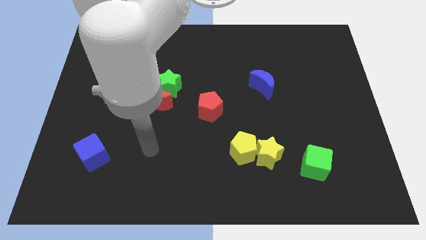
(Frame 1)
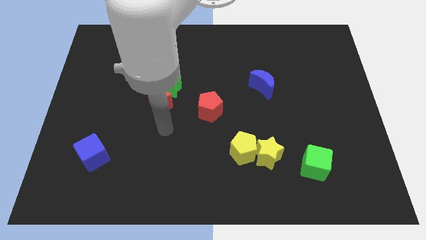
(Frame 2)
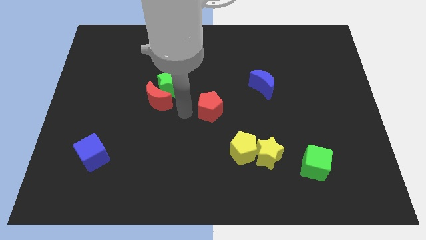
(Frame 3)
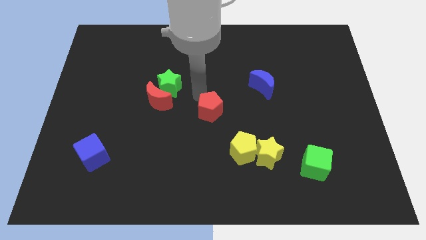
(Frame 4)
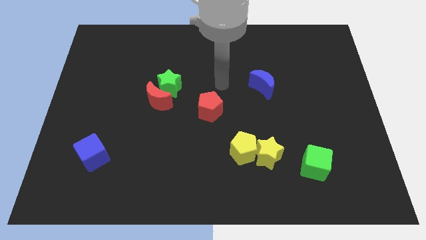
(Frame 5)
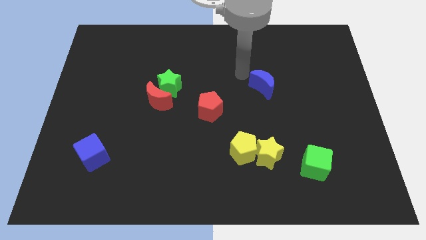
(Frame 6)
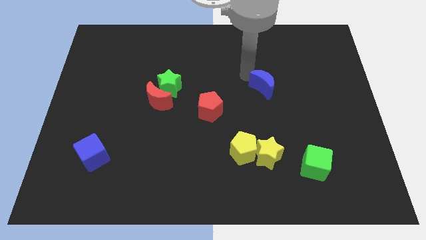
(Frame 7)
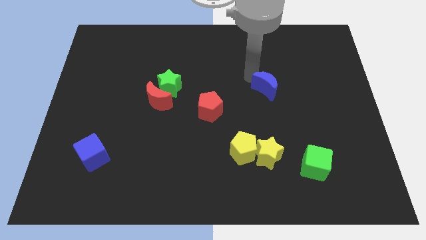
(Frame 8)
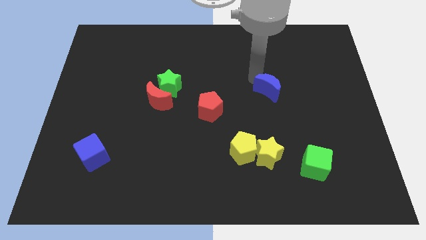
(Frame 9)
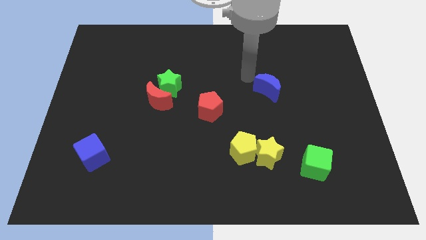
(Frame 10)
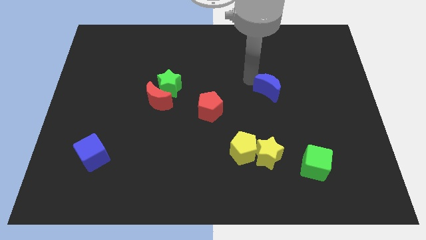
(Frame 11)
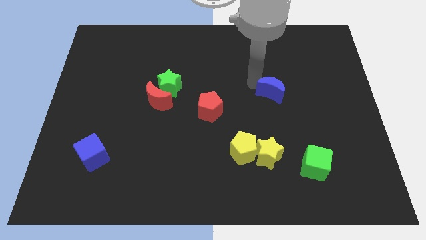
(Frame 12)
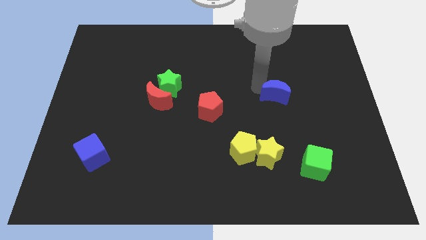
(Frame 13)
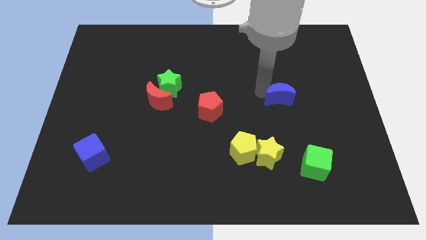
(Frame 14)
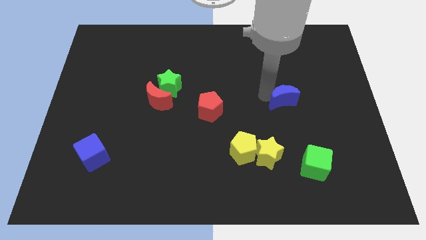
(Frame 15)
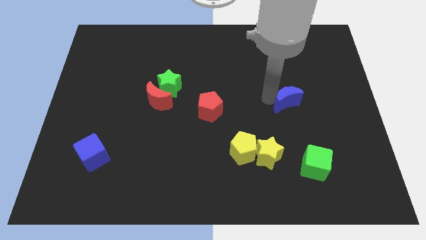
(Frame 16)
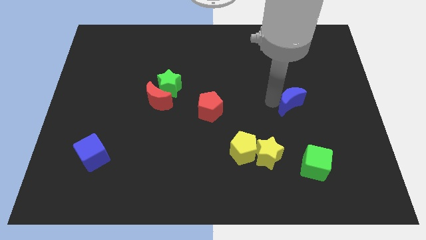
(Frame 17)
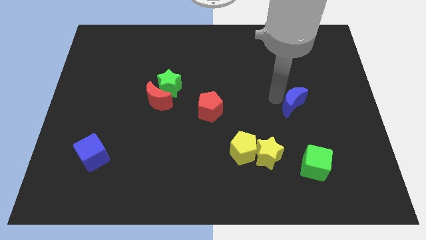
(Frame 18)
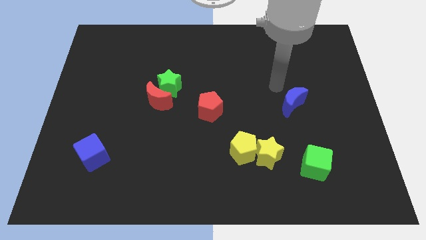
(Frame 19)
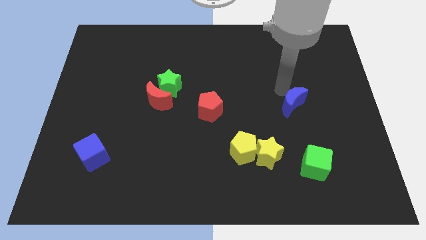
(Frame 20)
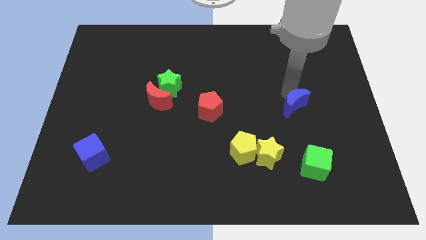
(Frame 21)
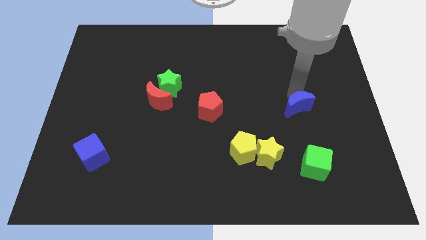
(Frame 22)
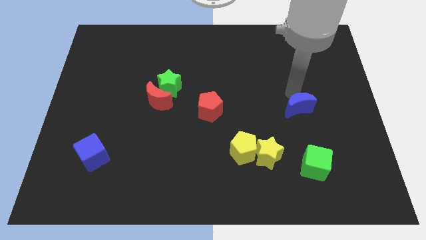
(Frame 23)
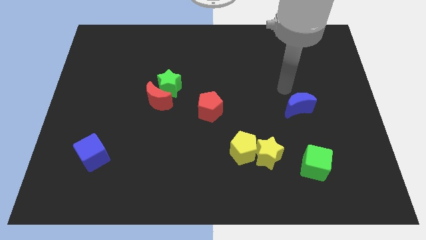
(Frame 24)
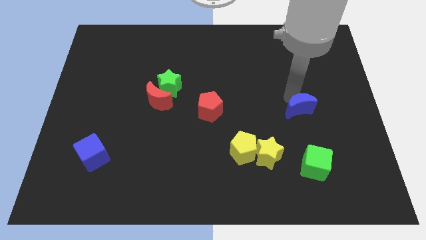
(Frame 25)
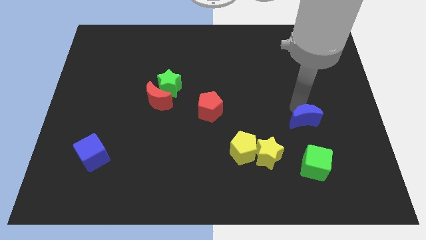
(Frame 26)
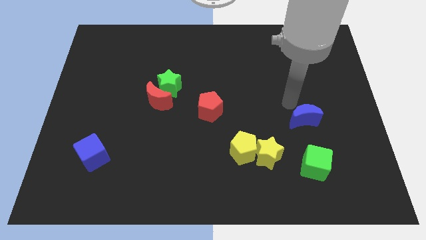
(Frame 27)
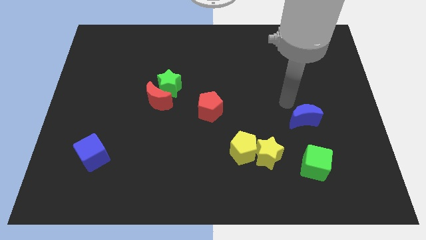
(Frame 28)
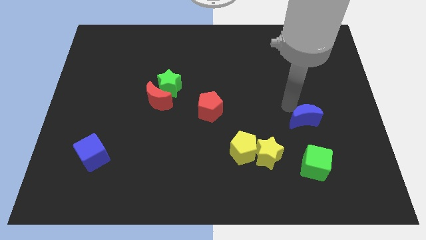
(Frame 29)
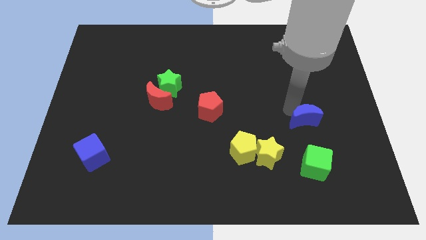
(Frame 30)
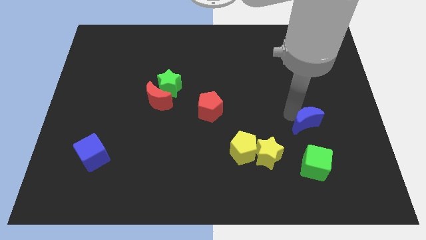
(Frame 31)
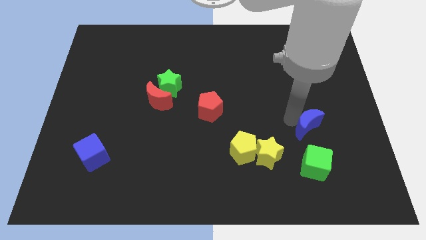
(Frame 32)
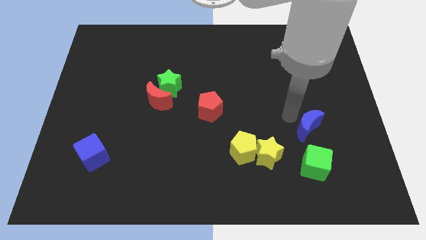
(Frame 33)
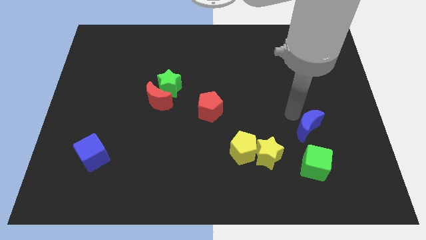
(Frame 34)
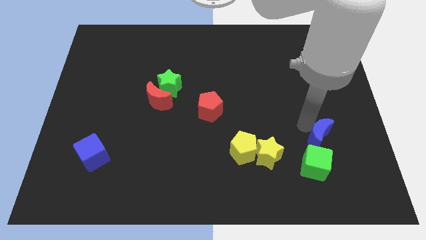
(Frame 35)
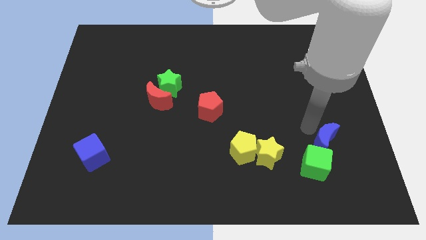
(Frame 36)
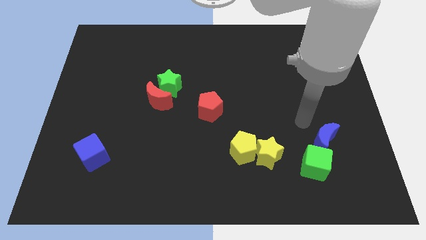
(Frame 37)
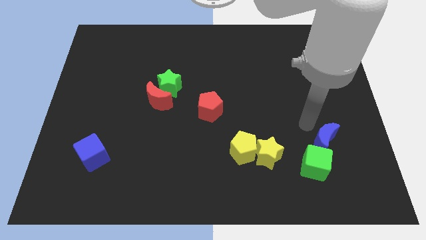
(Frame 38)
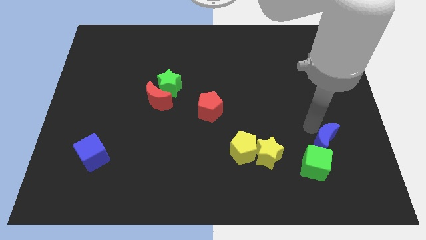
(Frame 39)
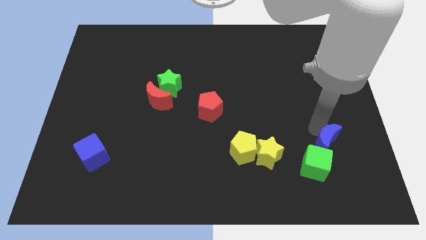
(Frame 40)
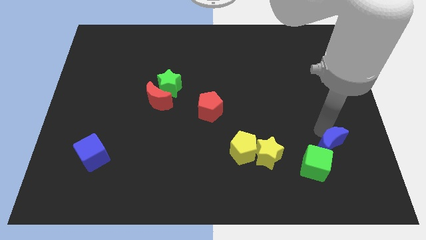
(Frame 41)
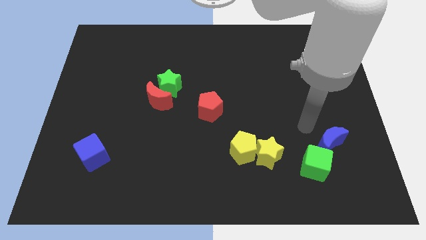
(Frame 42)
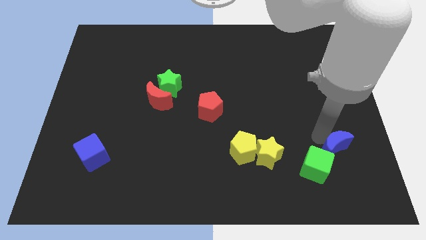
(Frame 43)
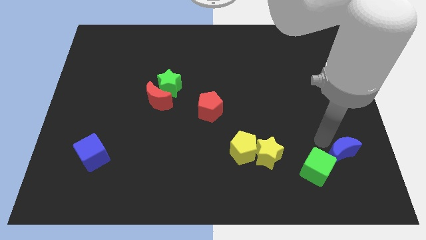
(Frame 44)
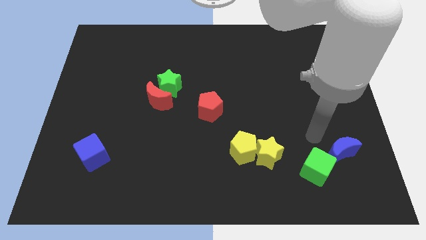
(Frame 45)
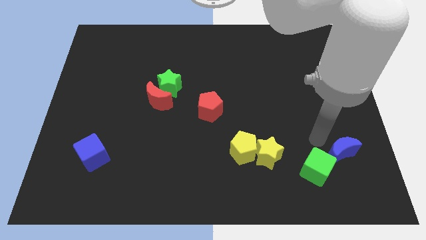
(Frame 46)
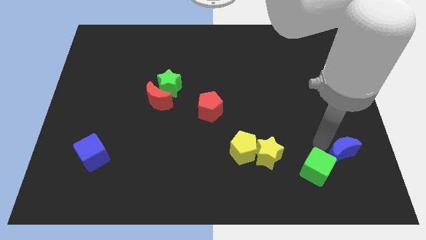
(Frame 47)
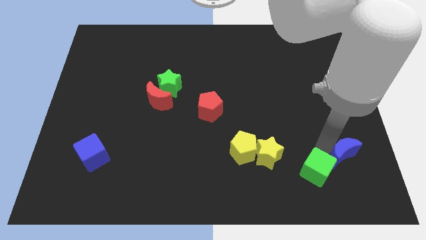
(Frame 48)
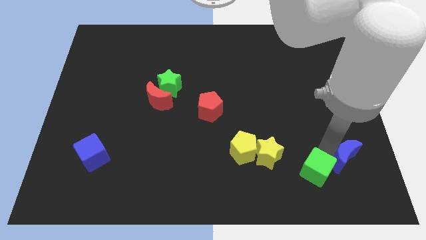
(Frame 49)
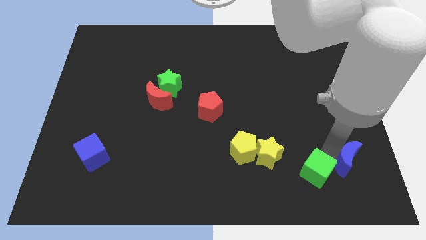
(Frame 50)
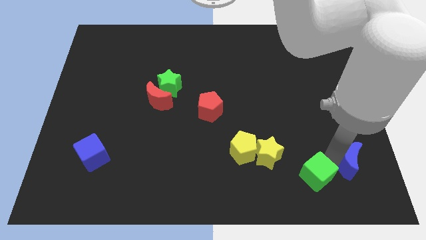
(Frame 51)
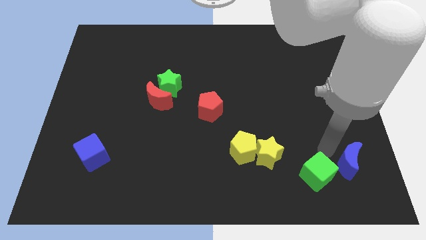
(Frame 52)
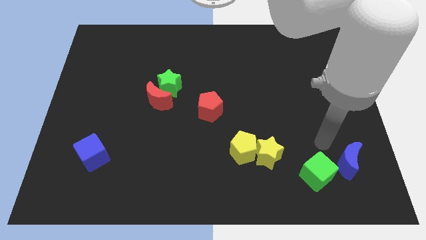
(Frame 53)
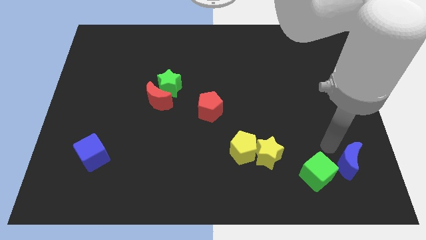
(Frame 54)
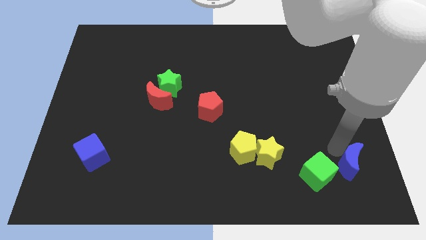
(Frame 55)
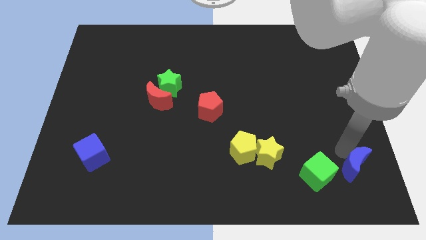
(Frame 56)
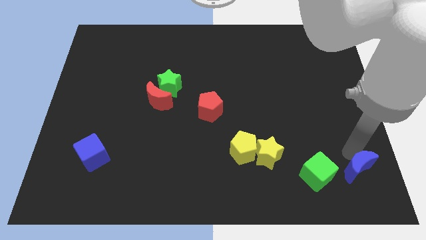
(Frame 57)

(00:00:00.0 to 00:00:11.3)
move the blue moon to the lower right corner
